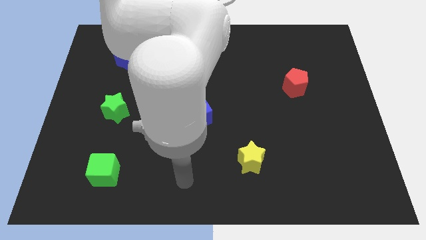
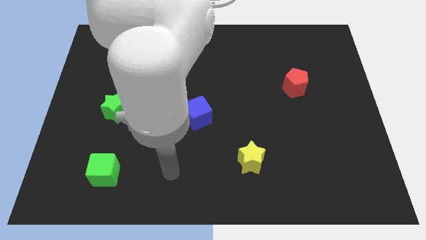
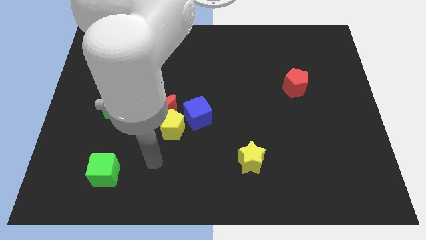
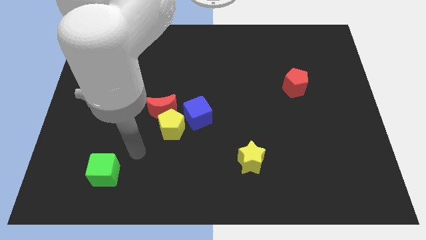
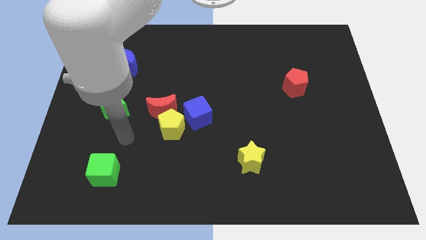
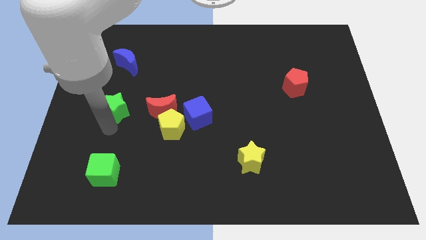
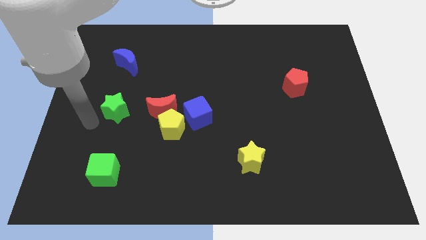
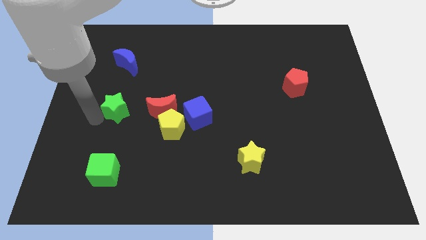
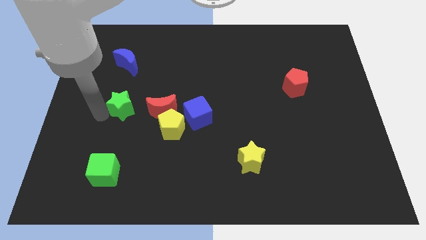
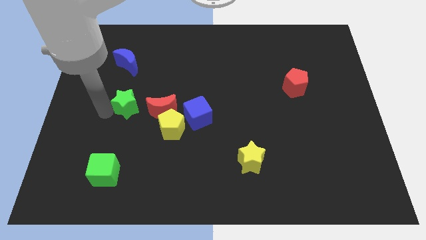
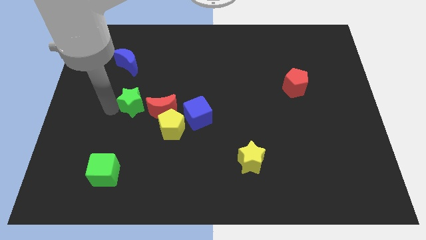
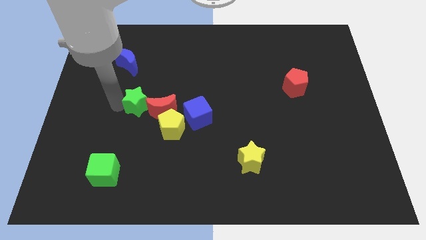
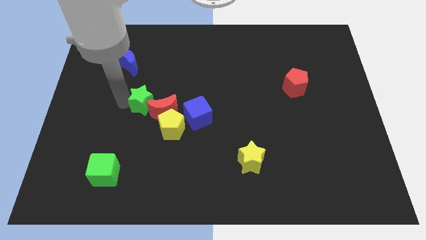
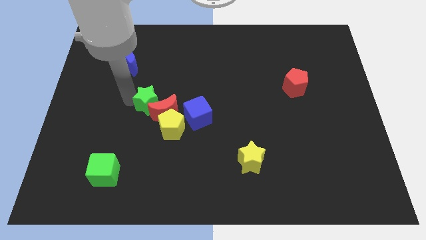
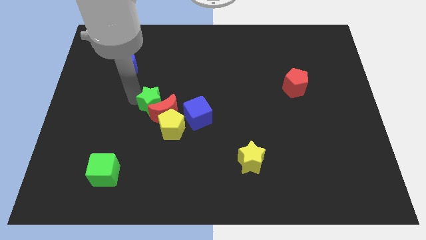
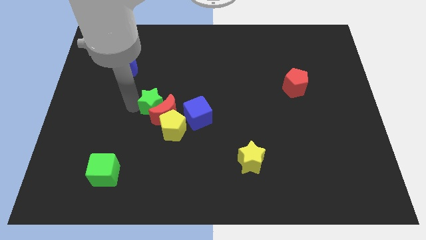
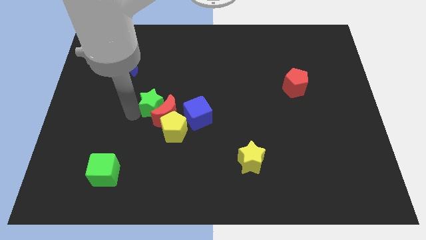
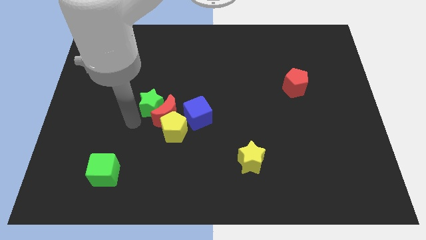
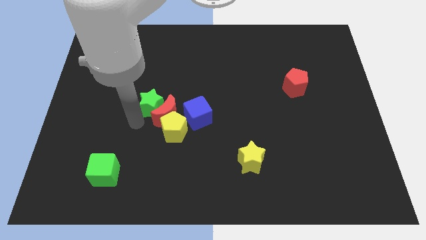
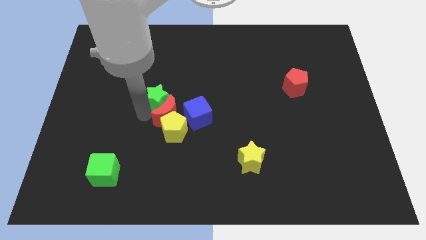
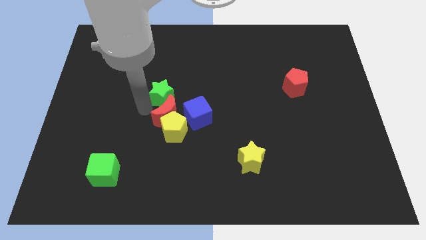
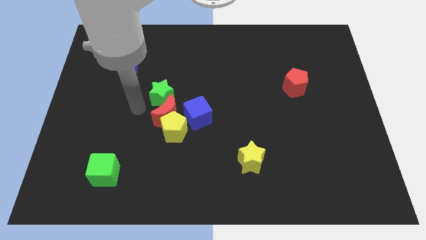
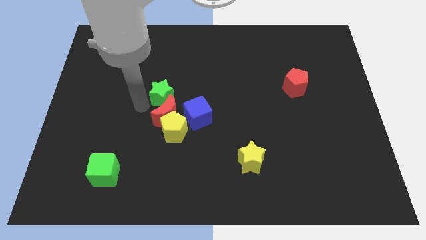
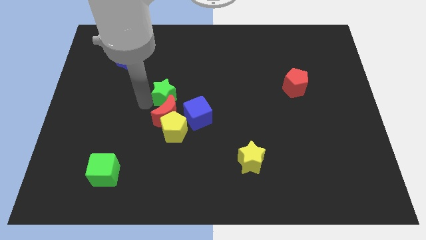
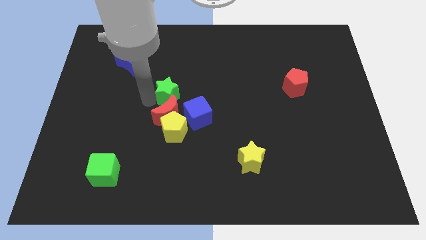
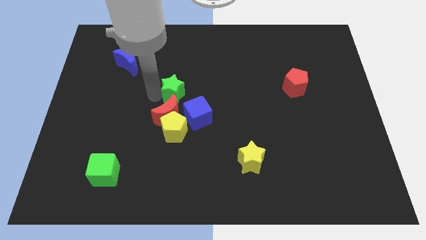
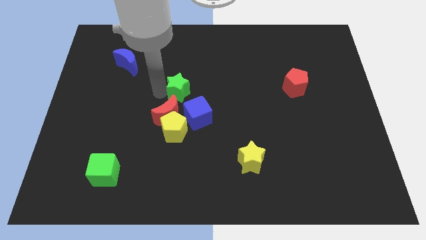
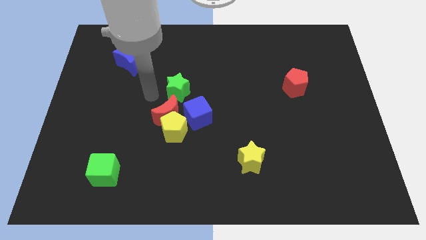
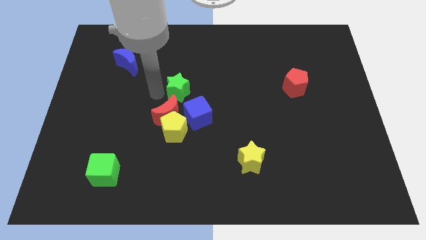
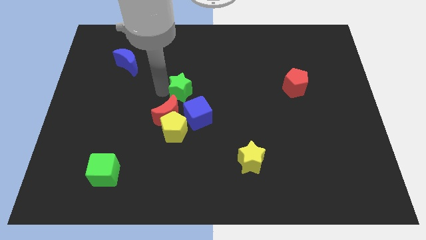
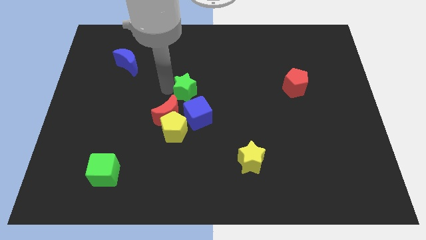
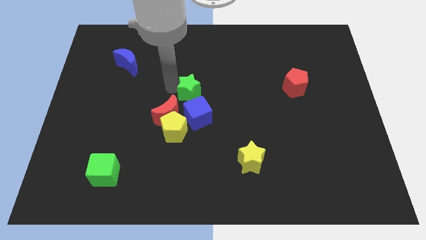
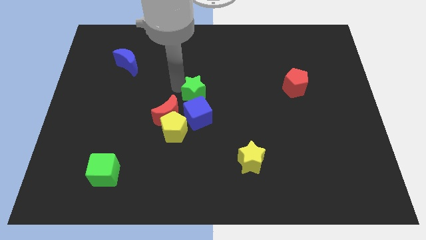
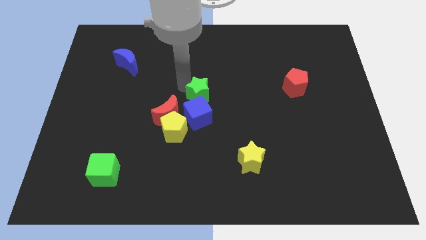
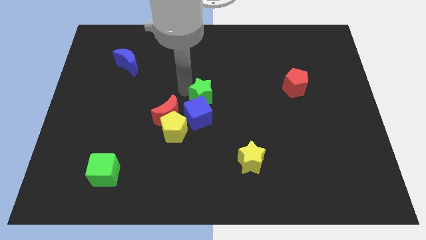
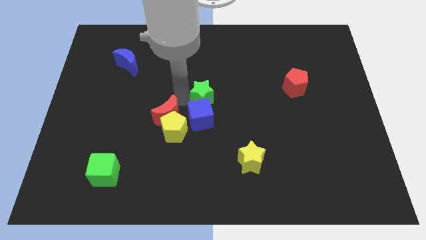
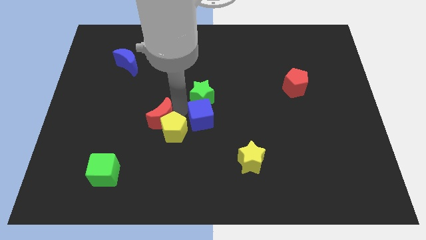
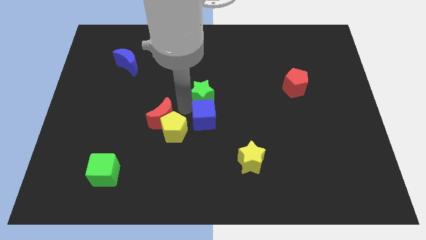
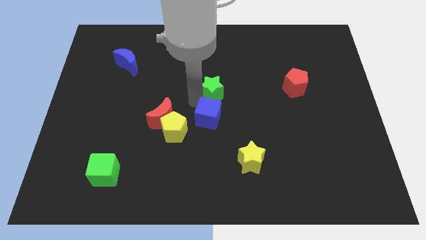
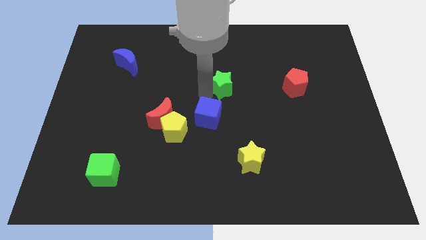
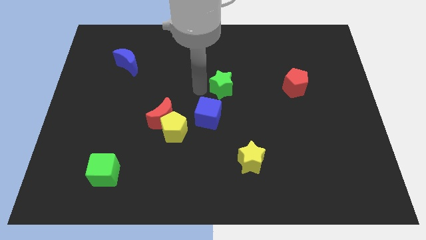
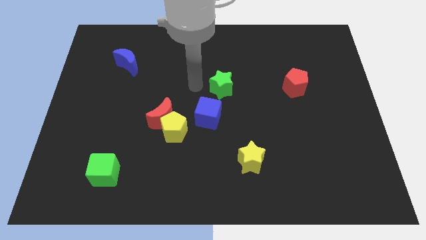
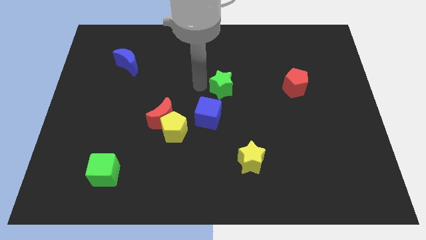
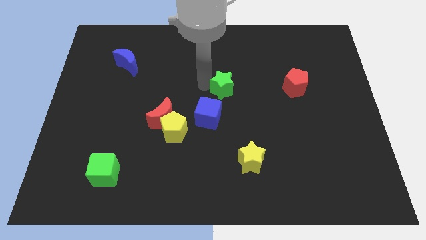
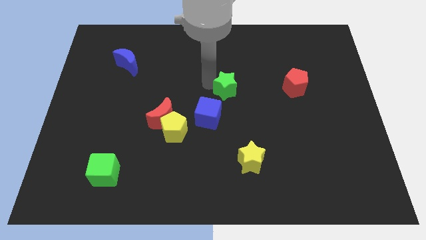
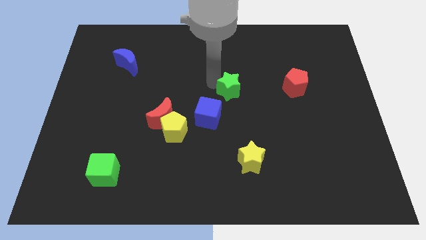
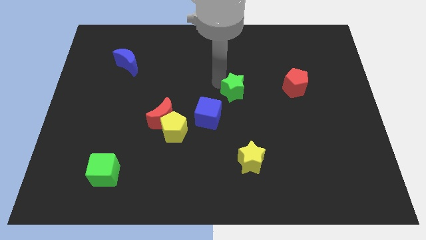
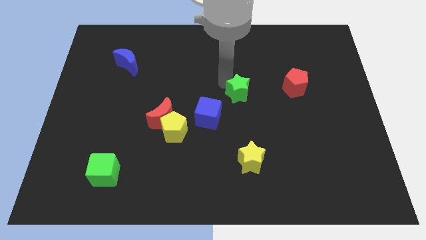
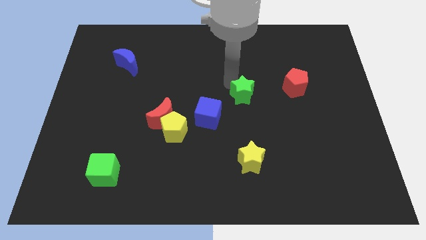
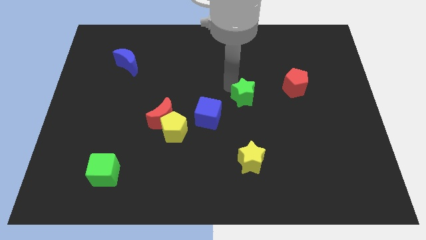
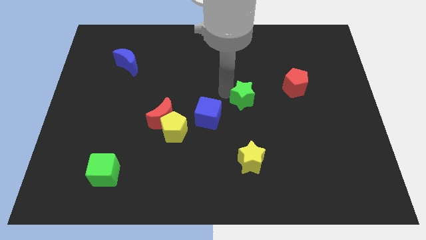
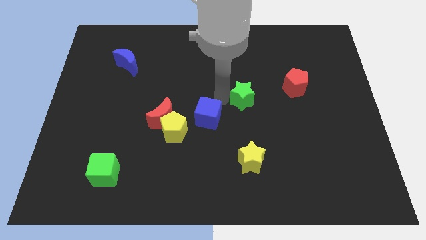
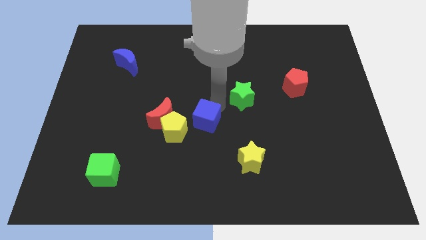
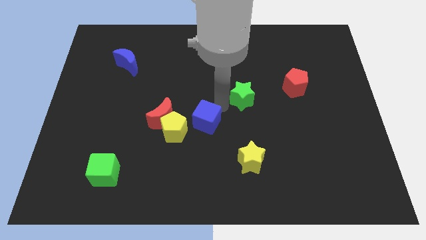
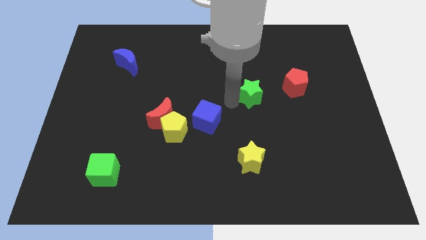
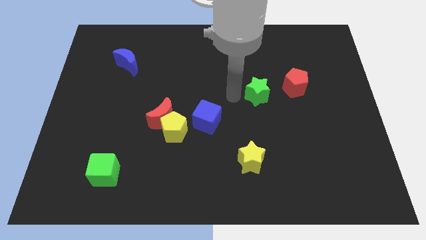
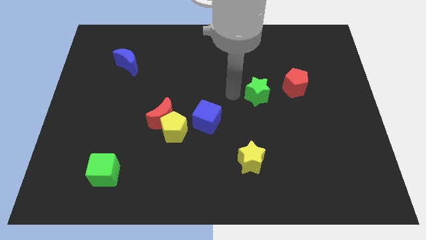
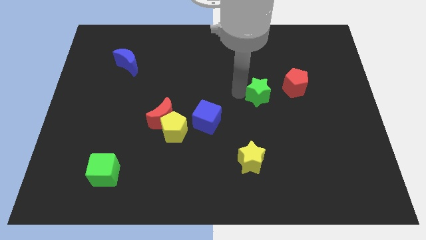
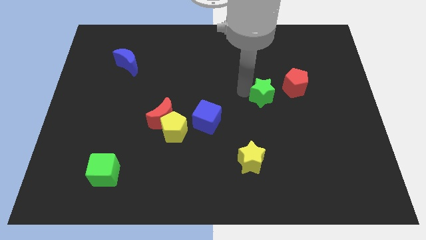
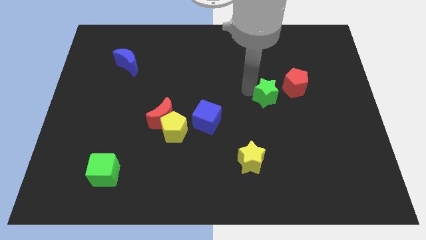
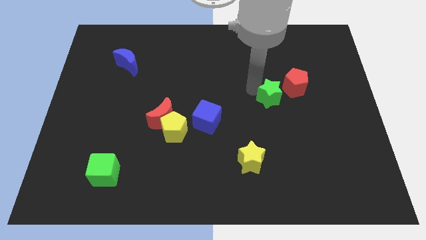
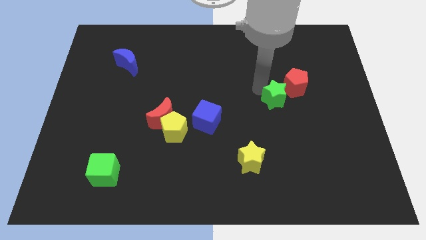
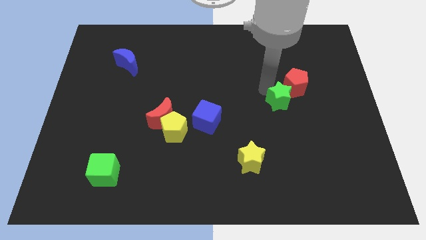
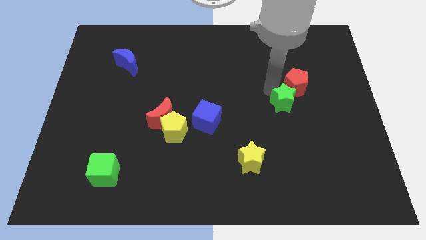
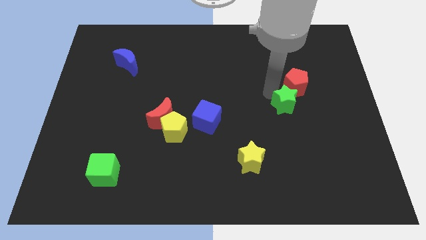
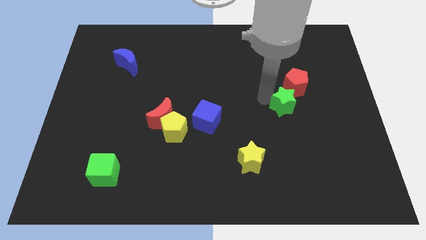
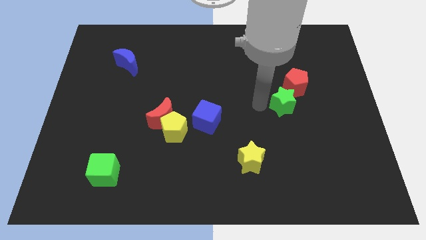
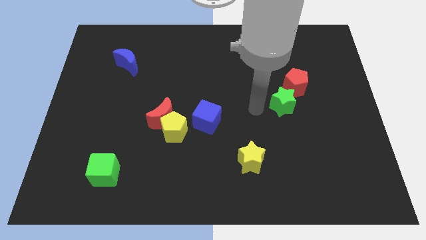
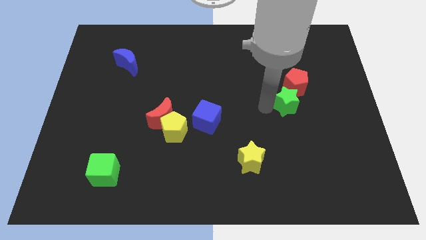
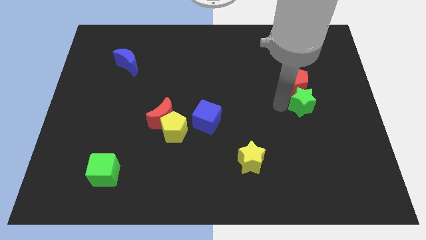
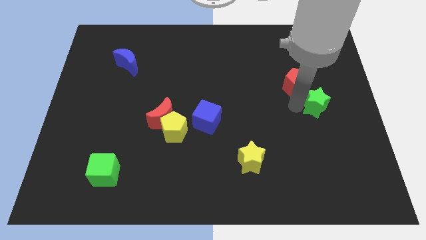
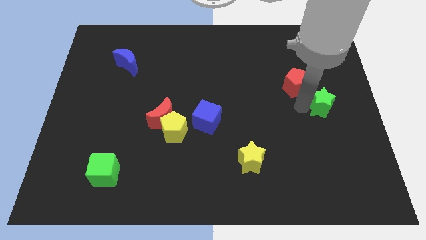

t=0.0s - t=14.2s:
push the green star to the right side of the board
